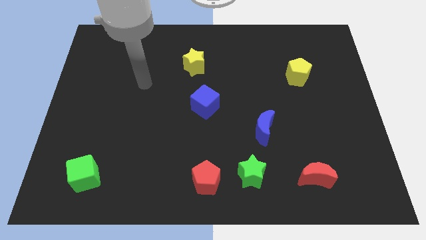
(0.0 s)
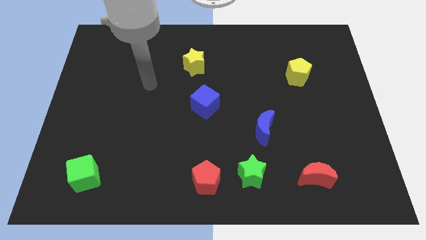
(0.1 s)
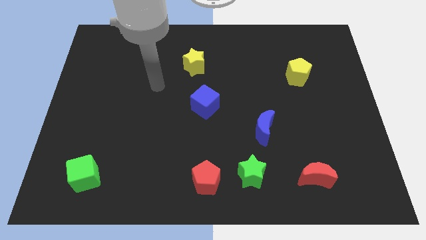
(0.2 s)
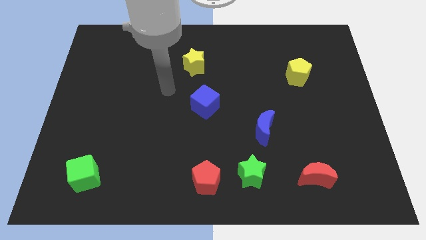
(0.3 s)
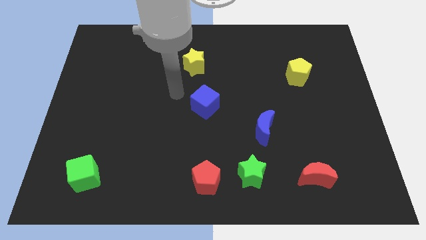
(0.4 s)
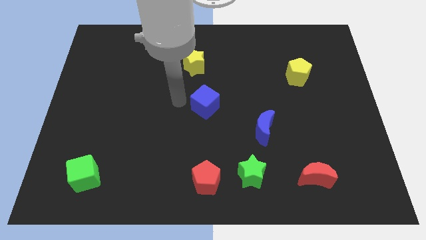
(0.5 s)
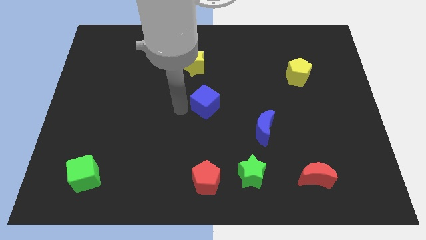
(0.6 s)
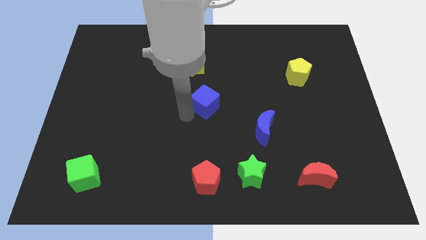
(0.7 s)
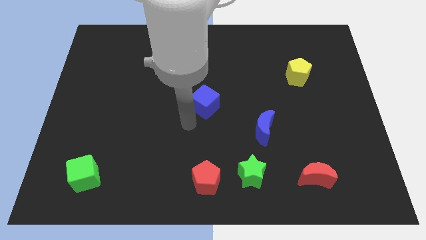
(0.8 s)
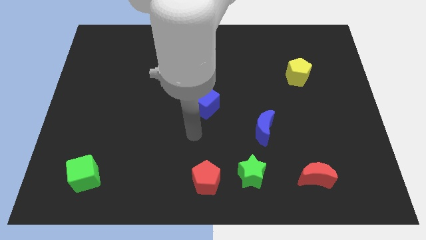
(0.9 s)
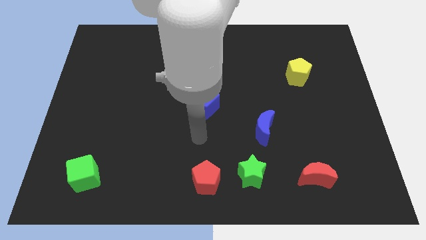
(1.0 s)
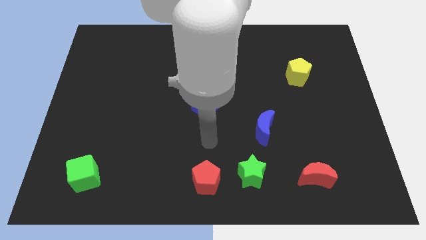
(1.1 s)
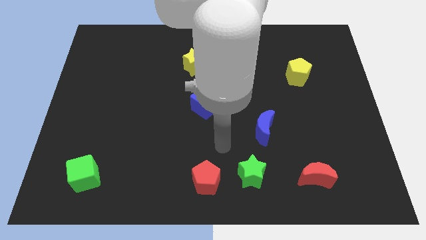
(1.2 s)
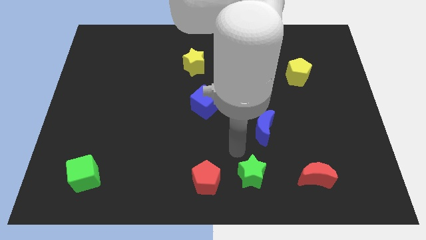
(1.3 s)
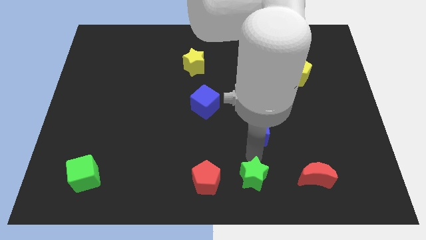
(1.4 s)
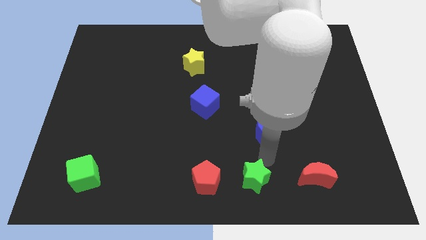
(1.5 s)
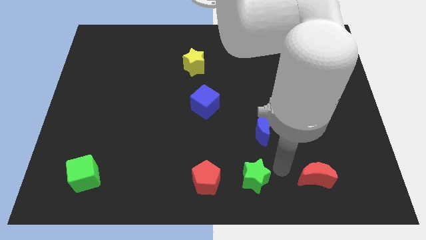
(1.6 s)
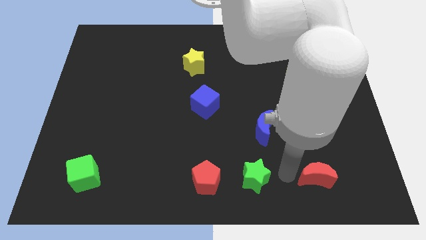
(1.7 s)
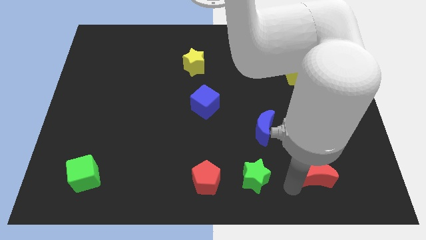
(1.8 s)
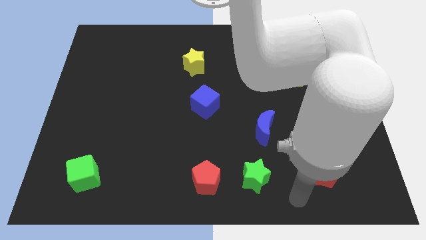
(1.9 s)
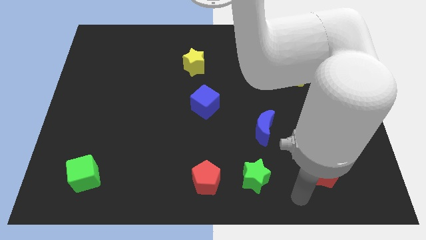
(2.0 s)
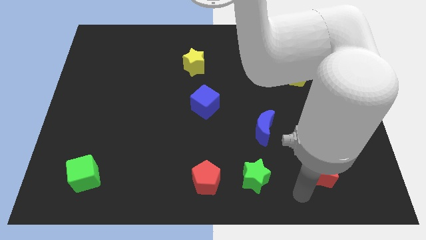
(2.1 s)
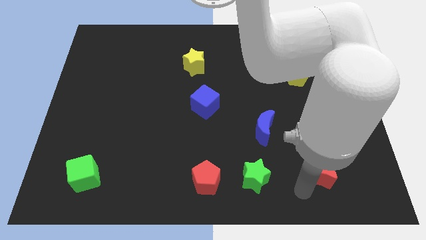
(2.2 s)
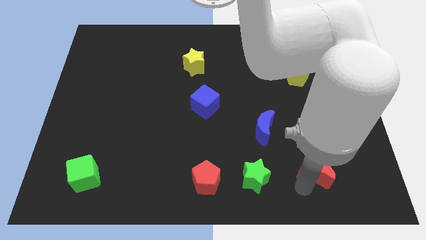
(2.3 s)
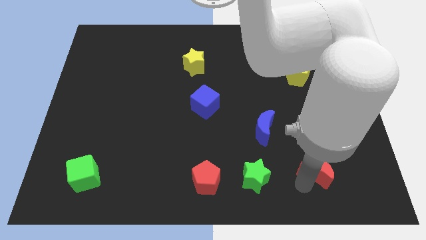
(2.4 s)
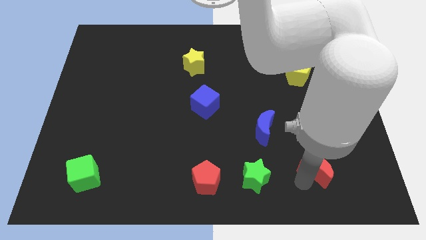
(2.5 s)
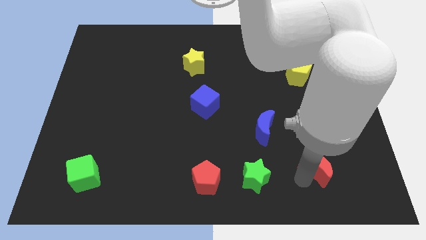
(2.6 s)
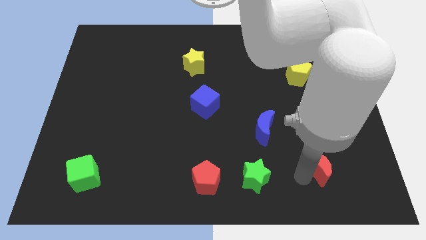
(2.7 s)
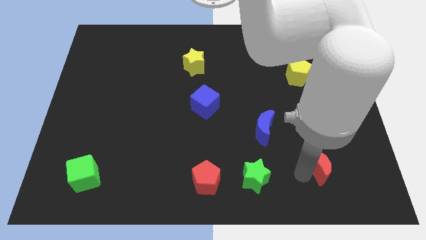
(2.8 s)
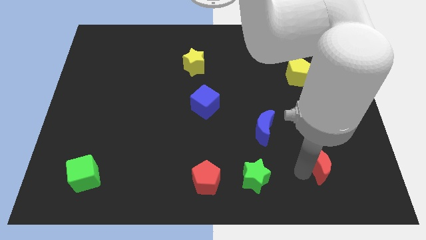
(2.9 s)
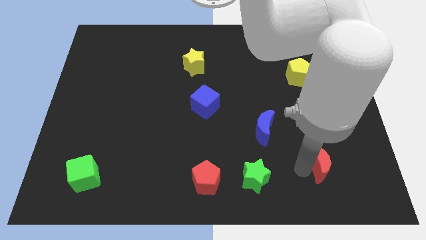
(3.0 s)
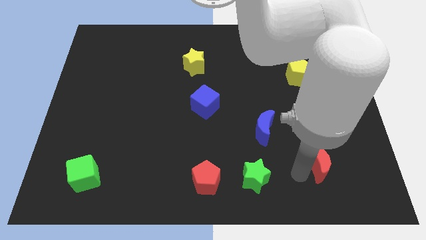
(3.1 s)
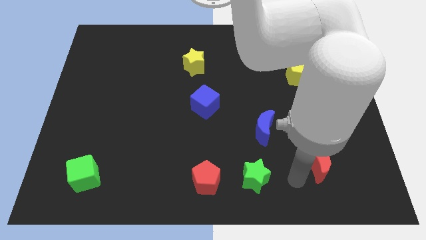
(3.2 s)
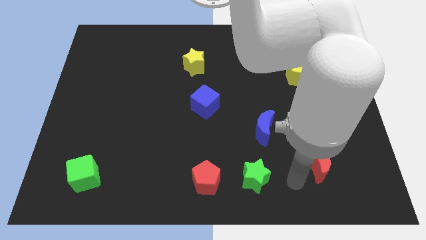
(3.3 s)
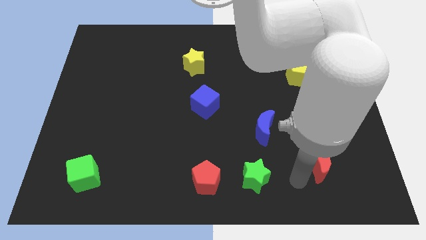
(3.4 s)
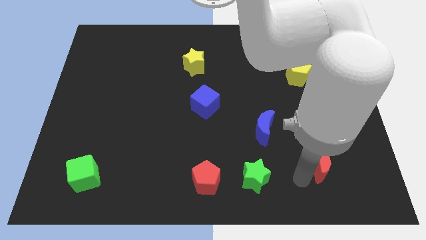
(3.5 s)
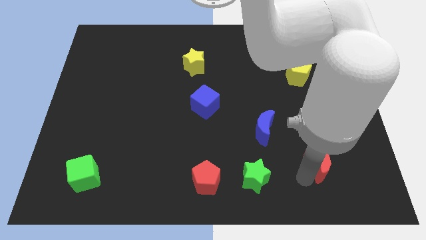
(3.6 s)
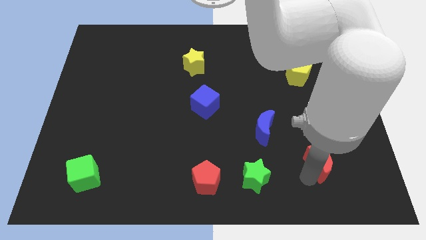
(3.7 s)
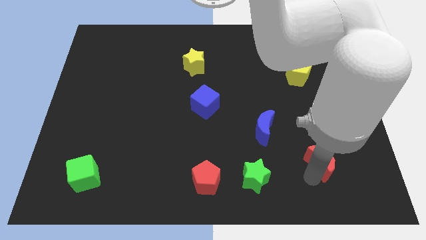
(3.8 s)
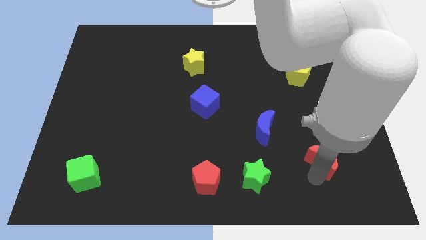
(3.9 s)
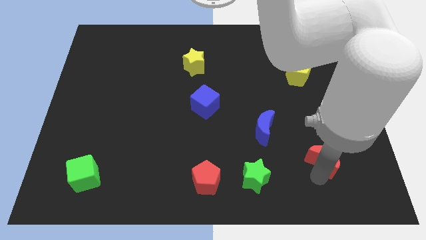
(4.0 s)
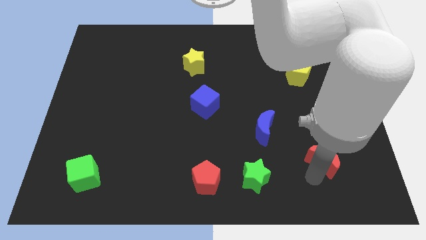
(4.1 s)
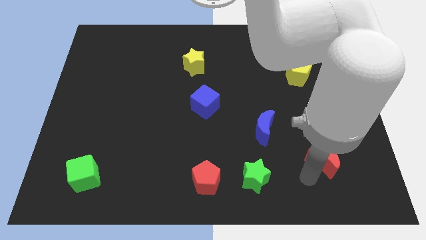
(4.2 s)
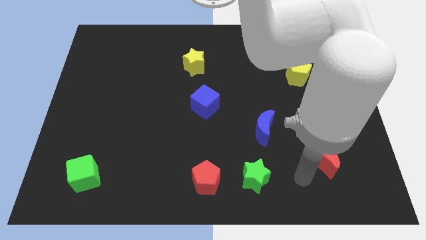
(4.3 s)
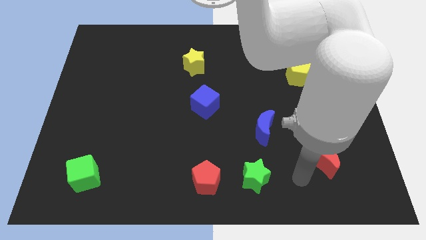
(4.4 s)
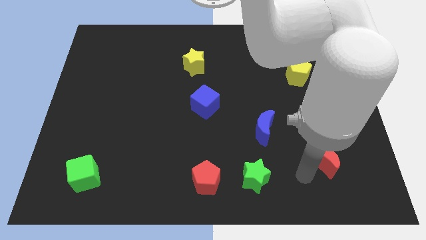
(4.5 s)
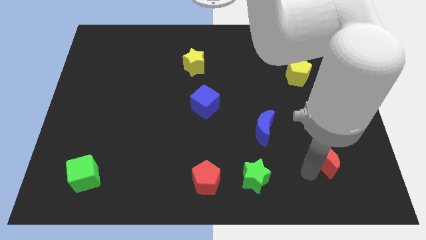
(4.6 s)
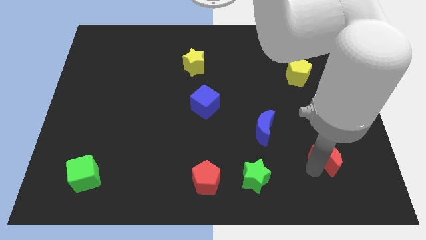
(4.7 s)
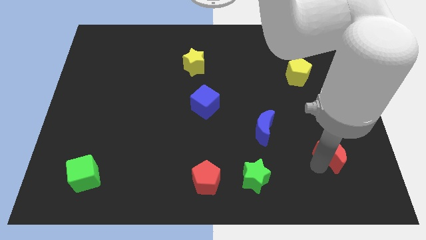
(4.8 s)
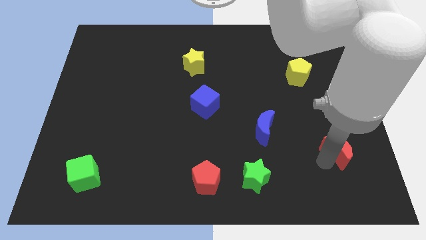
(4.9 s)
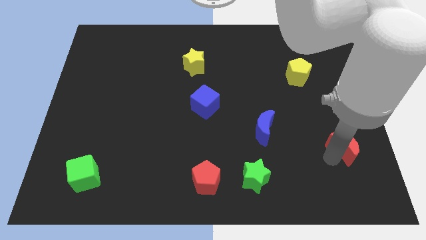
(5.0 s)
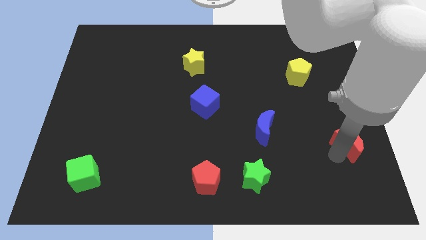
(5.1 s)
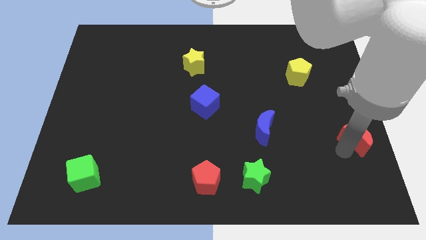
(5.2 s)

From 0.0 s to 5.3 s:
put the red moon to the right side

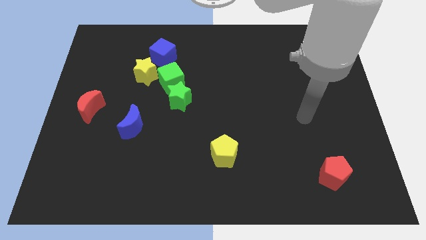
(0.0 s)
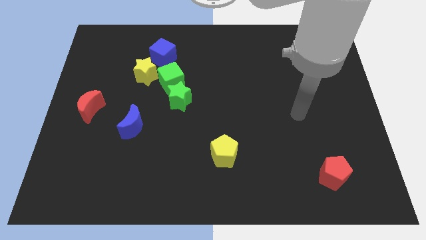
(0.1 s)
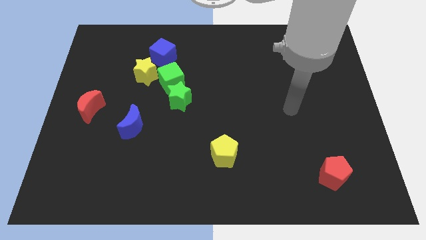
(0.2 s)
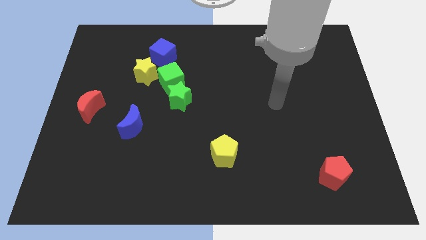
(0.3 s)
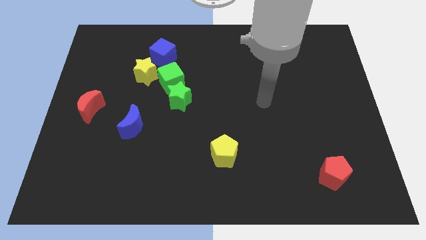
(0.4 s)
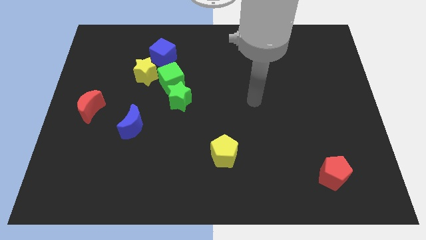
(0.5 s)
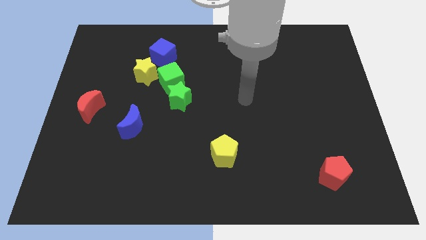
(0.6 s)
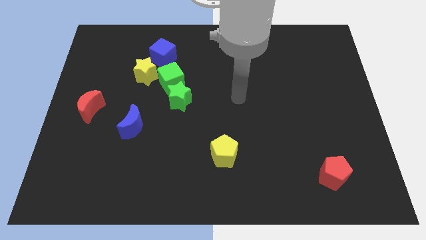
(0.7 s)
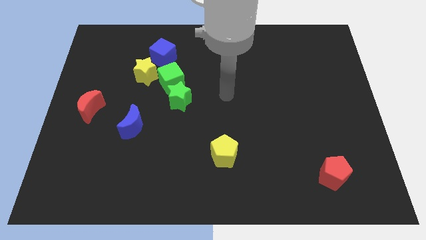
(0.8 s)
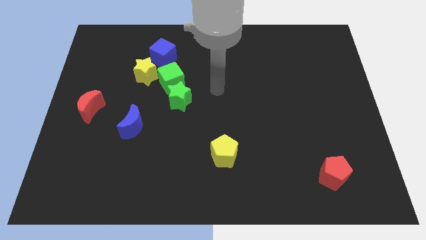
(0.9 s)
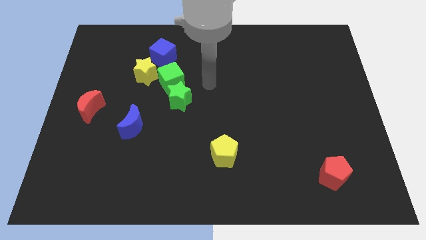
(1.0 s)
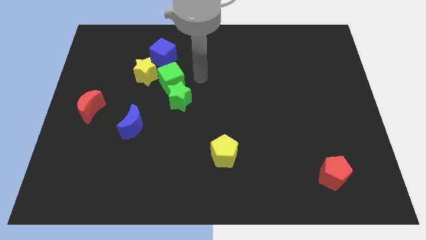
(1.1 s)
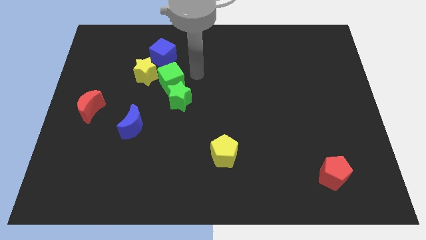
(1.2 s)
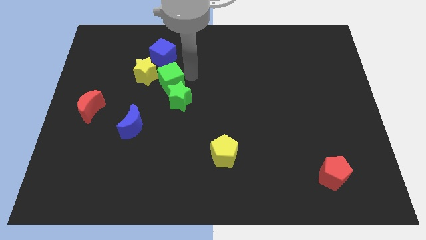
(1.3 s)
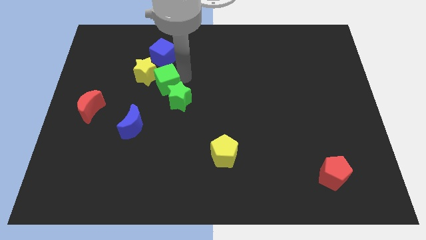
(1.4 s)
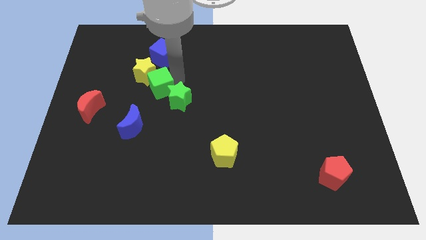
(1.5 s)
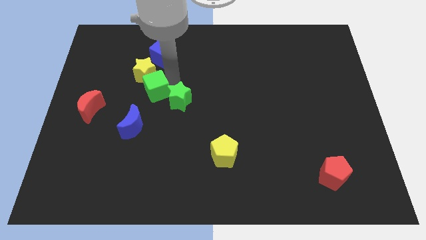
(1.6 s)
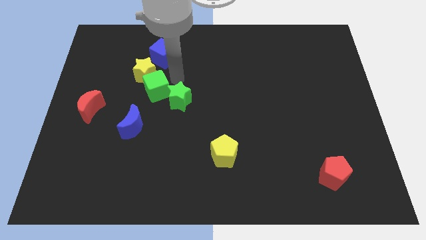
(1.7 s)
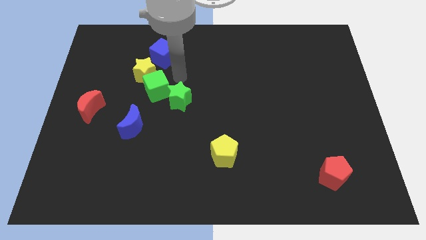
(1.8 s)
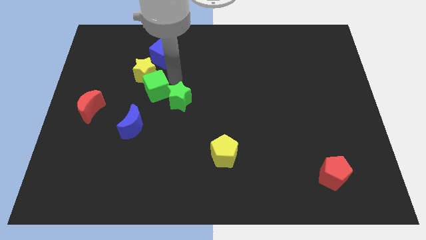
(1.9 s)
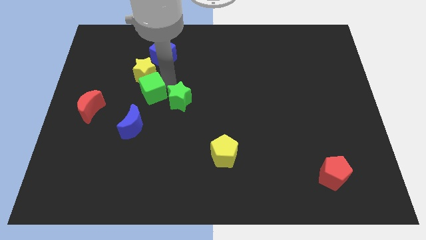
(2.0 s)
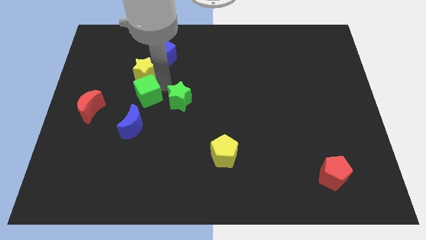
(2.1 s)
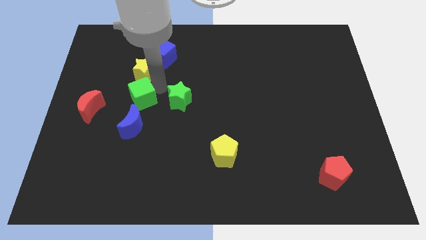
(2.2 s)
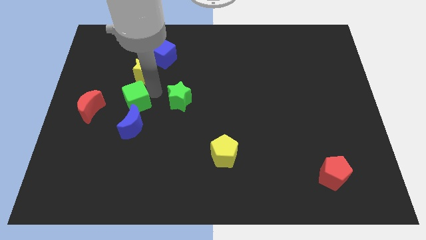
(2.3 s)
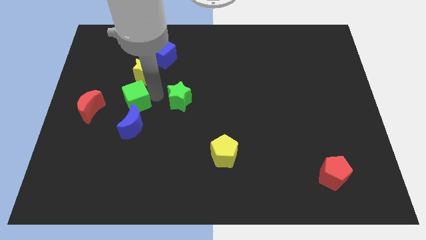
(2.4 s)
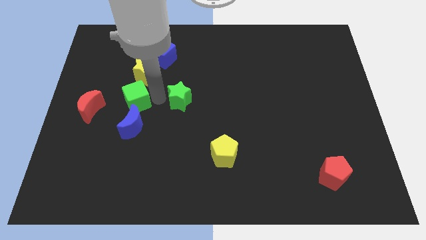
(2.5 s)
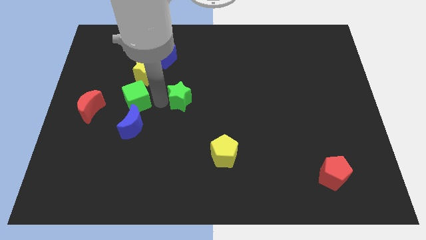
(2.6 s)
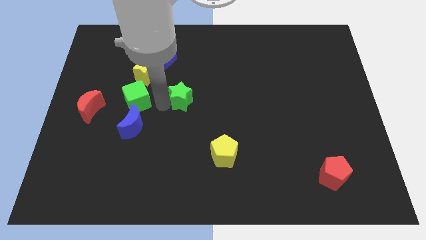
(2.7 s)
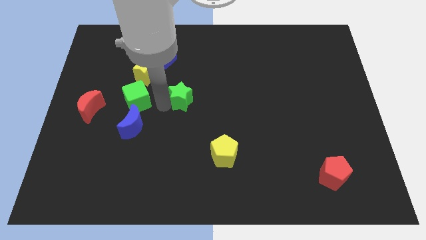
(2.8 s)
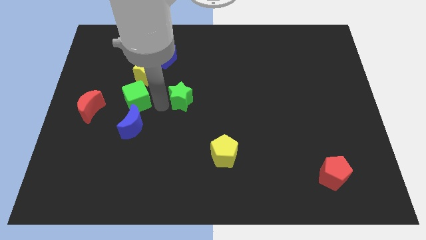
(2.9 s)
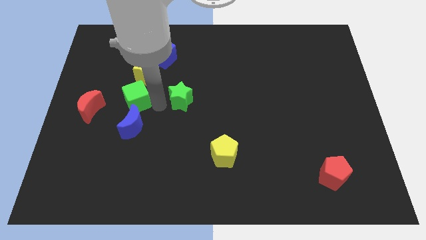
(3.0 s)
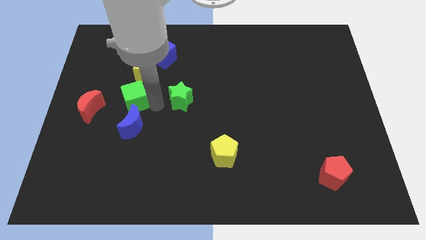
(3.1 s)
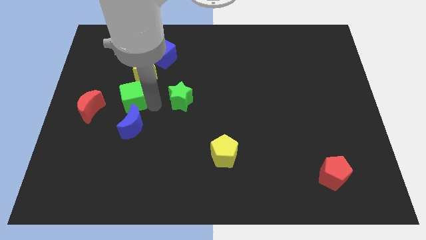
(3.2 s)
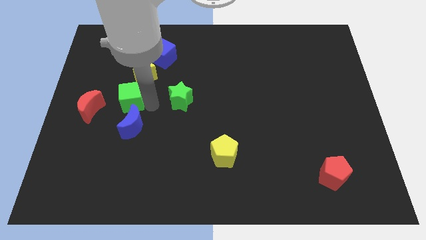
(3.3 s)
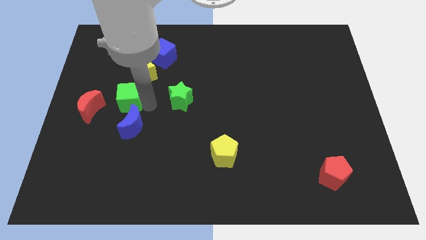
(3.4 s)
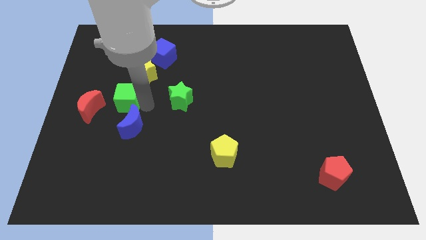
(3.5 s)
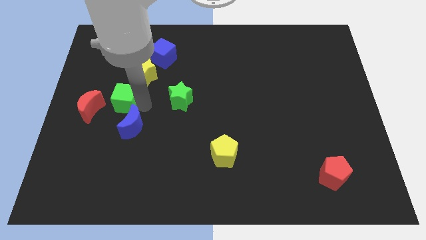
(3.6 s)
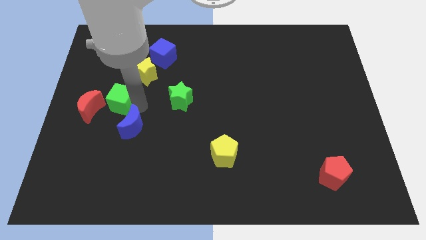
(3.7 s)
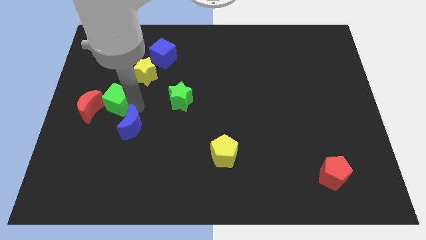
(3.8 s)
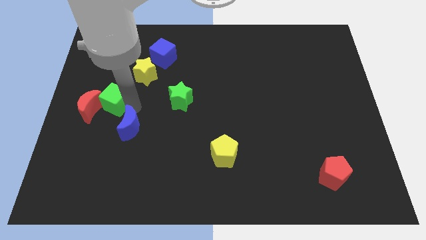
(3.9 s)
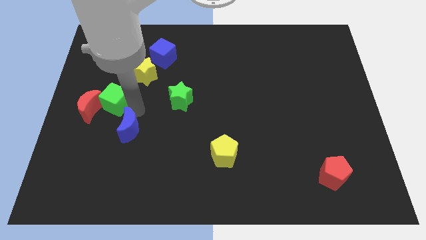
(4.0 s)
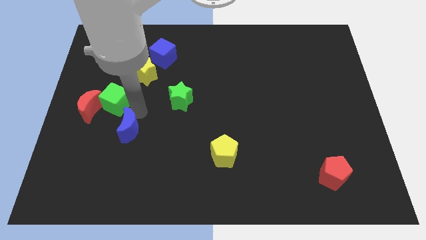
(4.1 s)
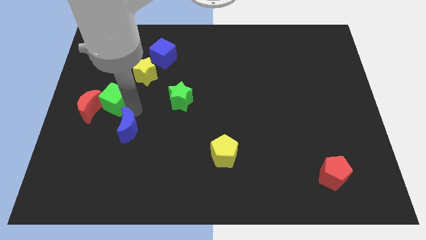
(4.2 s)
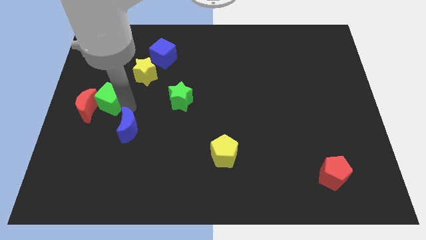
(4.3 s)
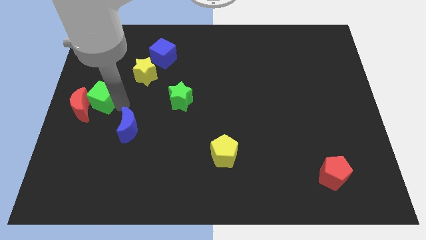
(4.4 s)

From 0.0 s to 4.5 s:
slide the green cube to the left side
